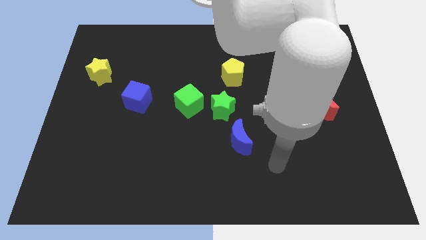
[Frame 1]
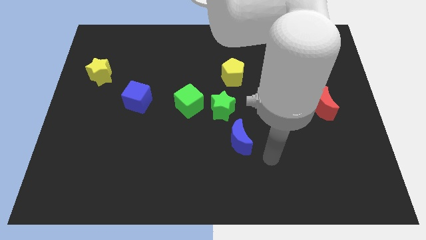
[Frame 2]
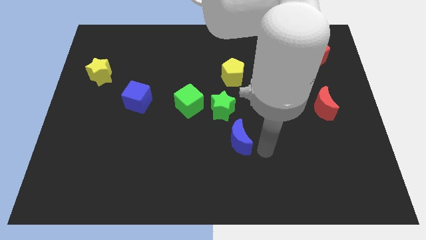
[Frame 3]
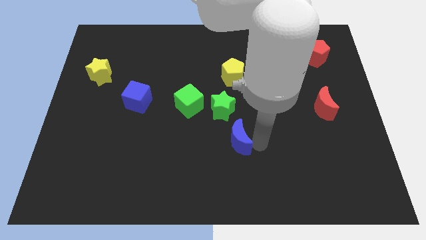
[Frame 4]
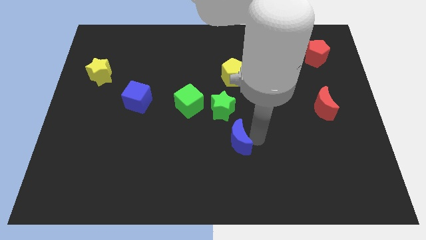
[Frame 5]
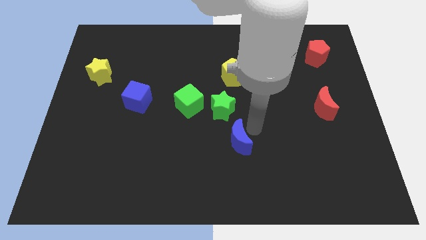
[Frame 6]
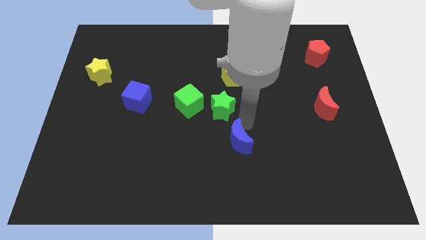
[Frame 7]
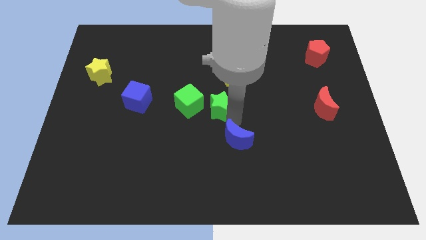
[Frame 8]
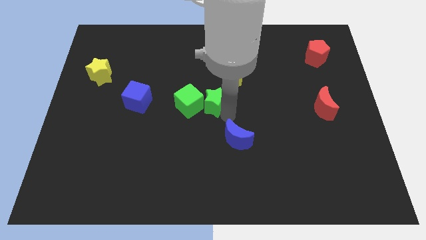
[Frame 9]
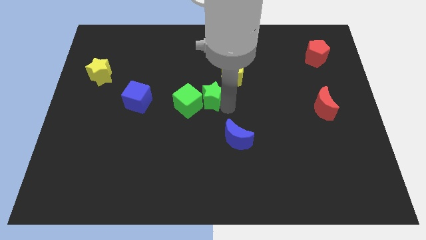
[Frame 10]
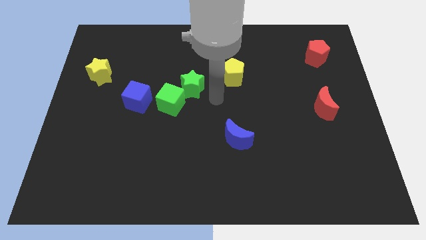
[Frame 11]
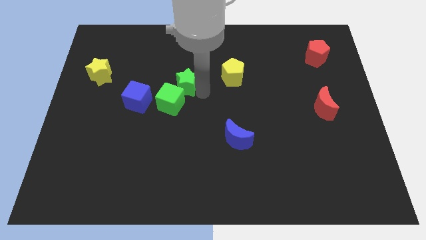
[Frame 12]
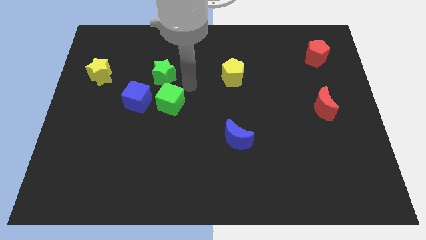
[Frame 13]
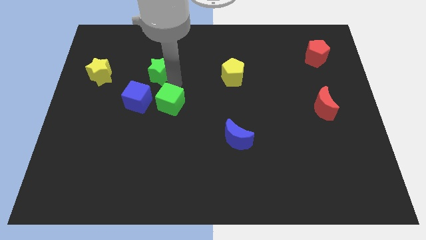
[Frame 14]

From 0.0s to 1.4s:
separate the green cube from the green star

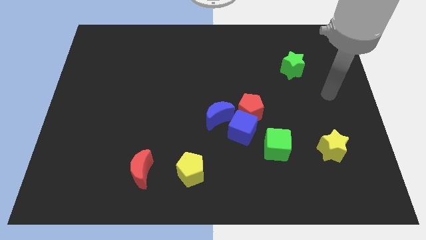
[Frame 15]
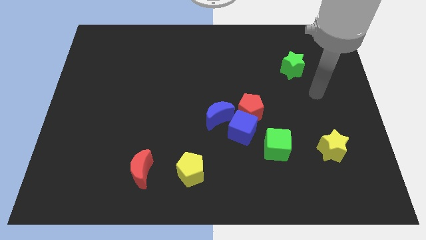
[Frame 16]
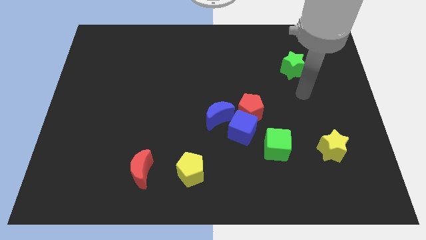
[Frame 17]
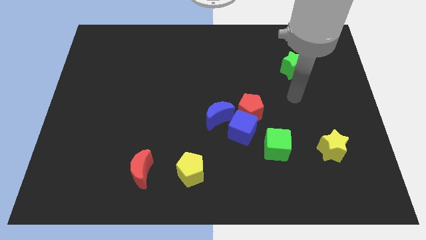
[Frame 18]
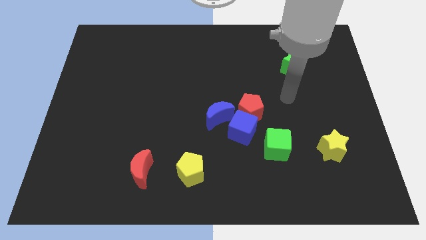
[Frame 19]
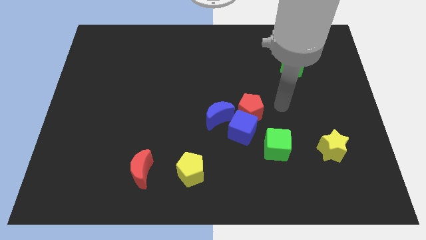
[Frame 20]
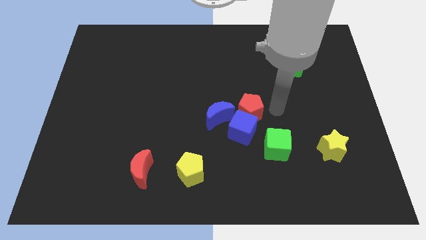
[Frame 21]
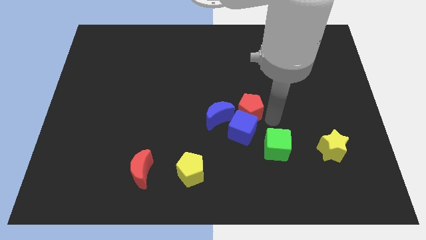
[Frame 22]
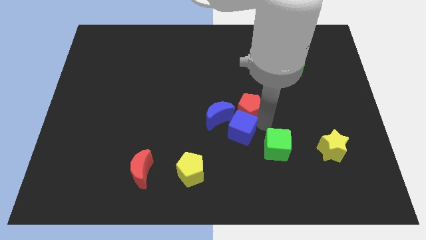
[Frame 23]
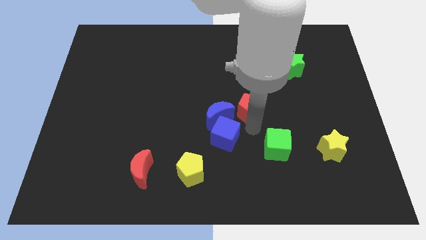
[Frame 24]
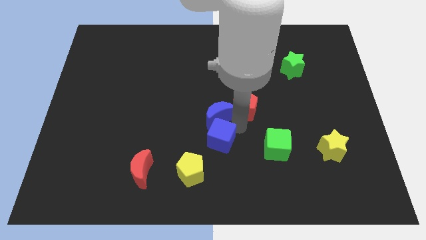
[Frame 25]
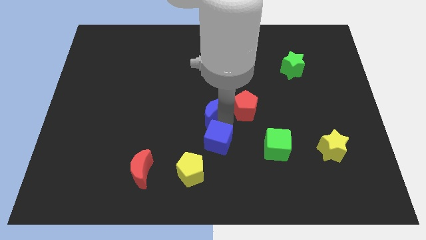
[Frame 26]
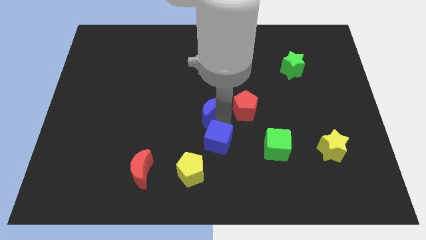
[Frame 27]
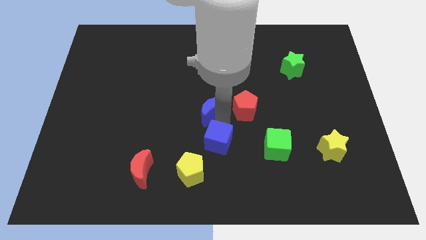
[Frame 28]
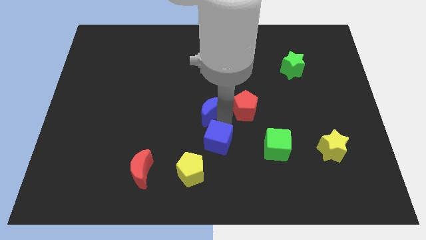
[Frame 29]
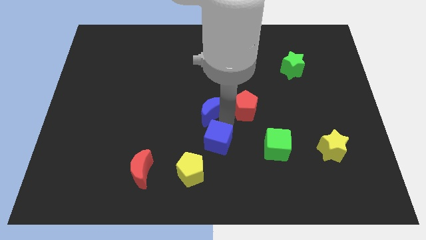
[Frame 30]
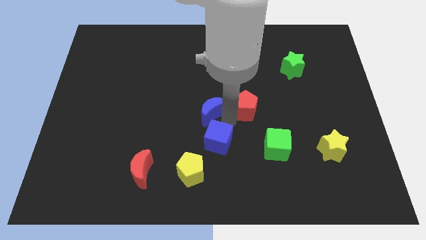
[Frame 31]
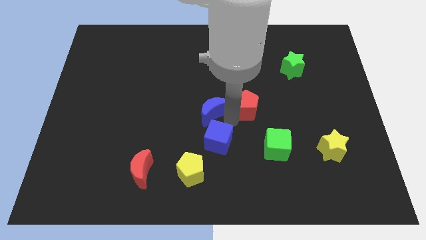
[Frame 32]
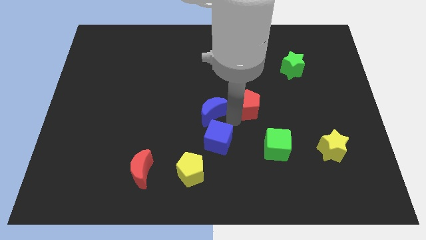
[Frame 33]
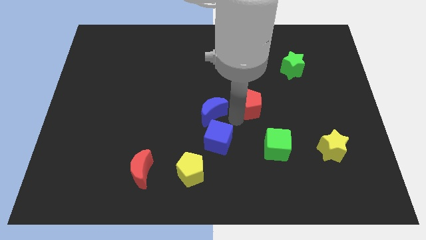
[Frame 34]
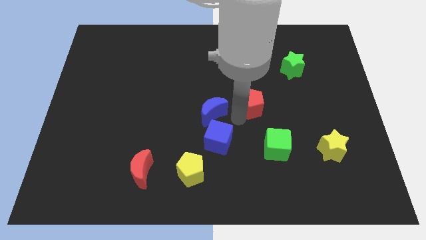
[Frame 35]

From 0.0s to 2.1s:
pull the red pentagon apart from the blue cube and blue moon

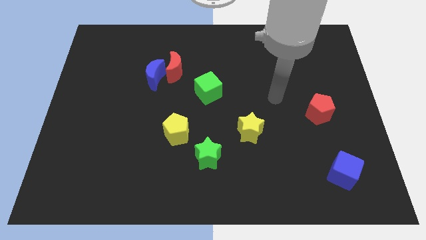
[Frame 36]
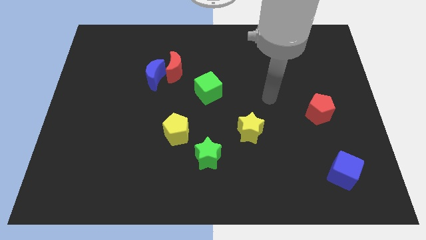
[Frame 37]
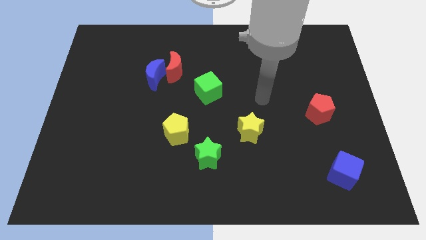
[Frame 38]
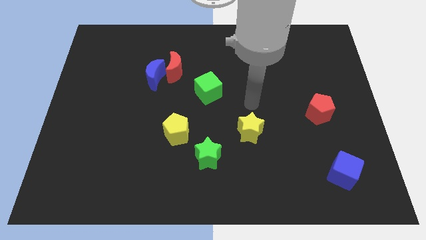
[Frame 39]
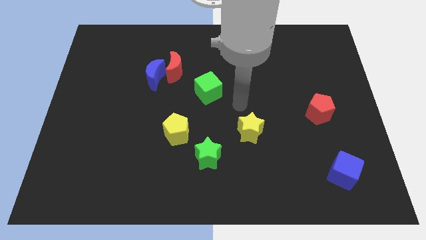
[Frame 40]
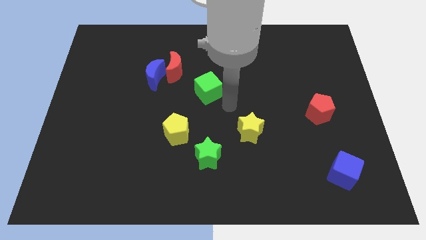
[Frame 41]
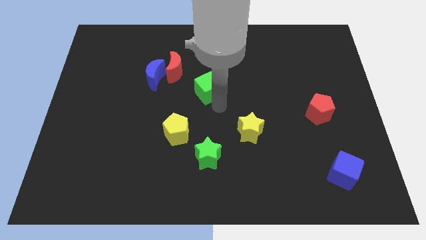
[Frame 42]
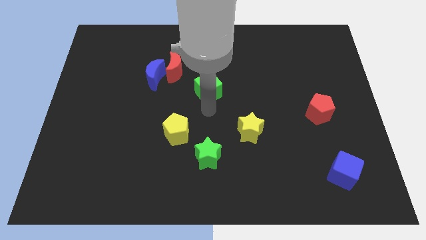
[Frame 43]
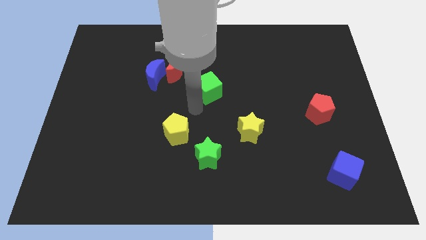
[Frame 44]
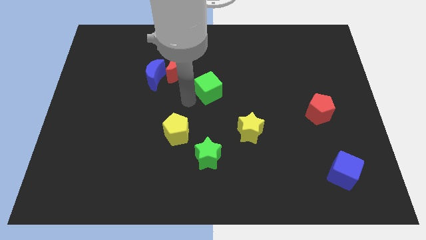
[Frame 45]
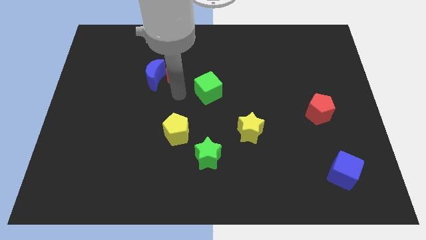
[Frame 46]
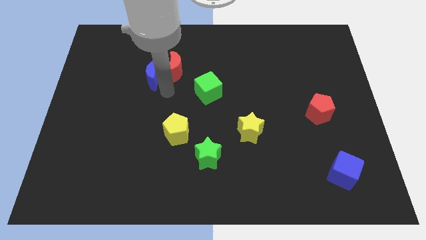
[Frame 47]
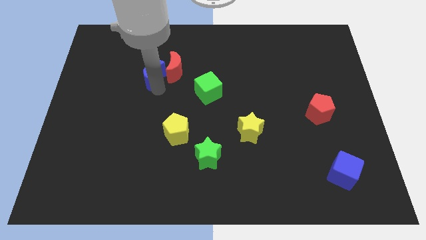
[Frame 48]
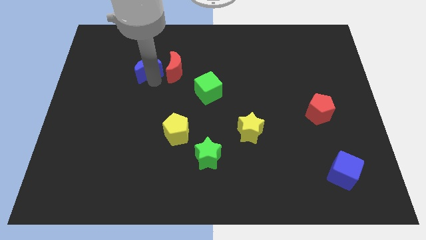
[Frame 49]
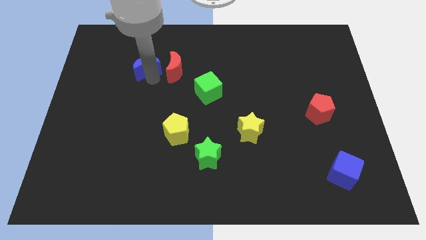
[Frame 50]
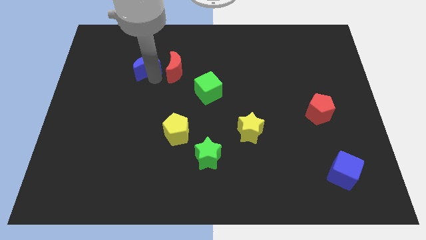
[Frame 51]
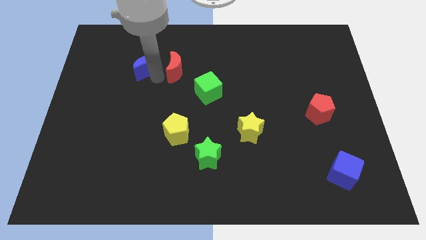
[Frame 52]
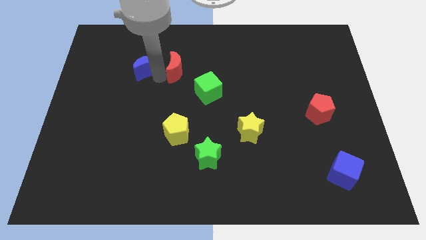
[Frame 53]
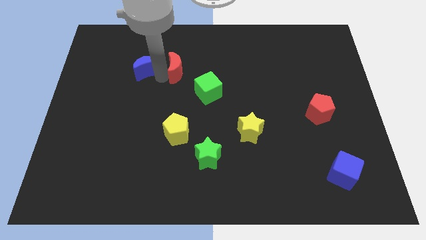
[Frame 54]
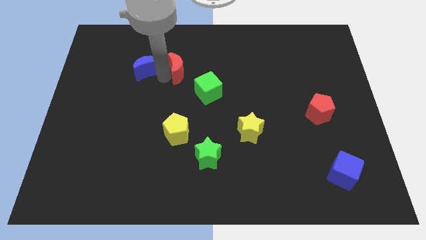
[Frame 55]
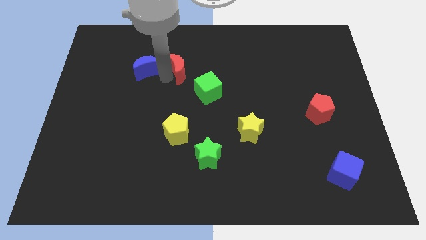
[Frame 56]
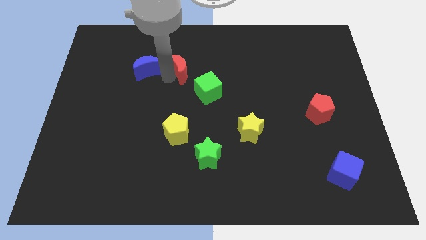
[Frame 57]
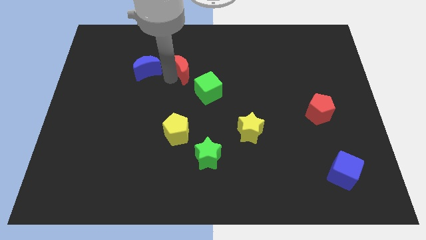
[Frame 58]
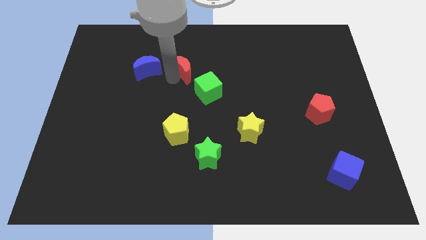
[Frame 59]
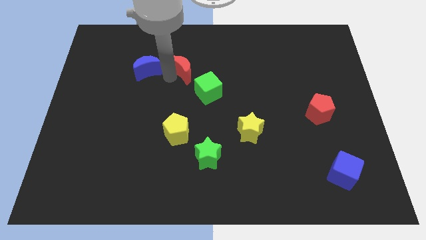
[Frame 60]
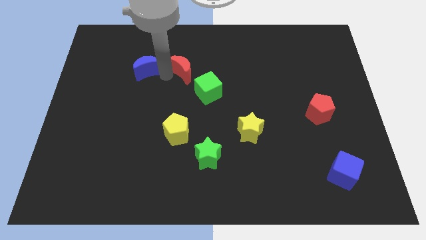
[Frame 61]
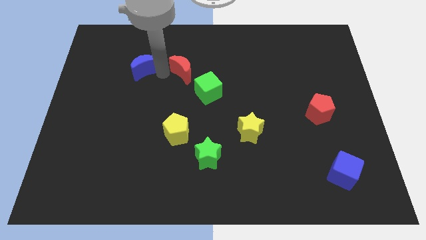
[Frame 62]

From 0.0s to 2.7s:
pull the red moon apart from the blue moon

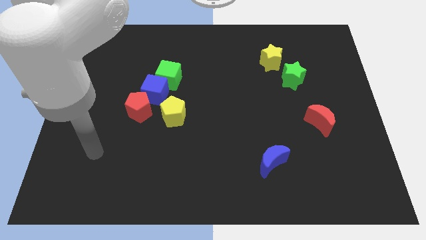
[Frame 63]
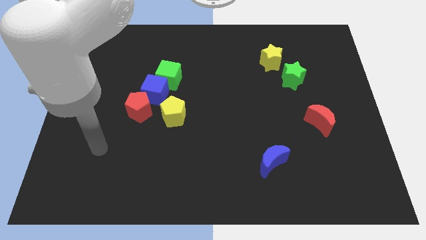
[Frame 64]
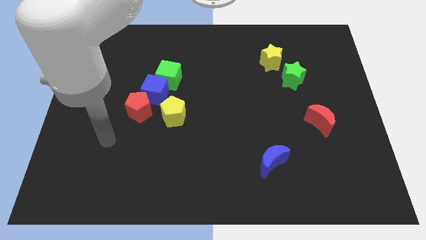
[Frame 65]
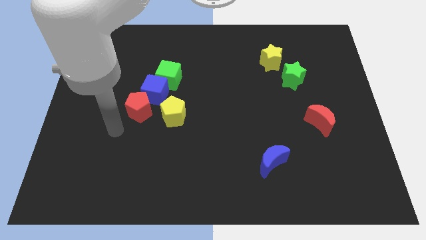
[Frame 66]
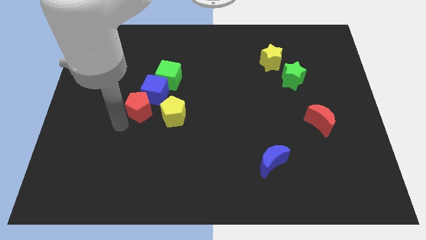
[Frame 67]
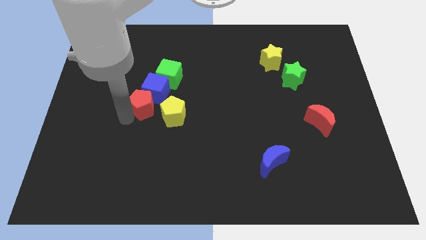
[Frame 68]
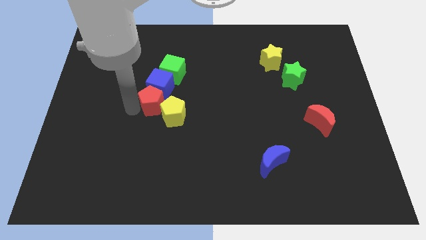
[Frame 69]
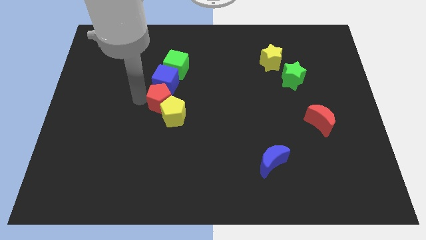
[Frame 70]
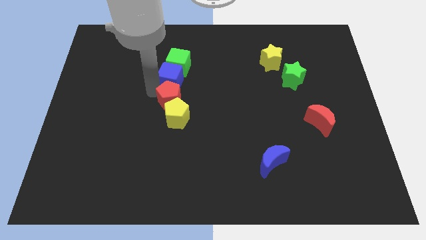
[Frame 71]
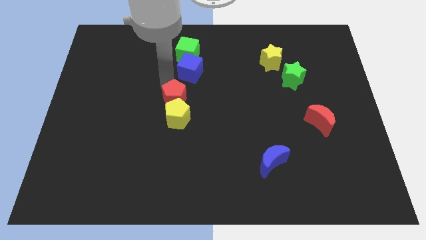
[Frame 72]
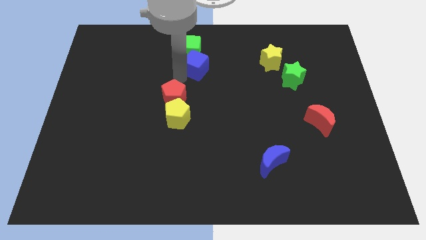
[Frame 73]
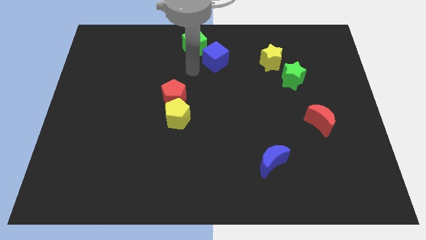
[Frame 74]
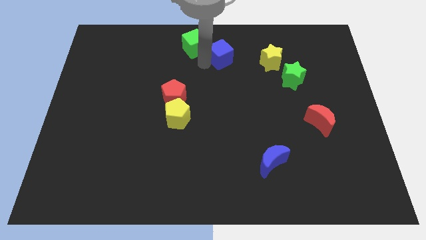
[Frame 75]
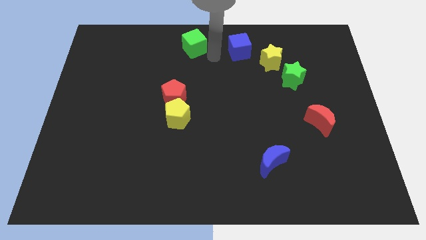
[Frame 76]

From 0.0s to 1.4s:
move the green cube away from the blue cube

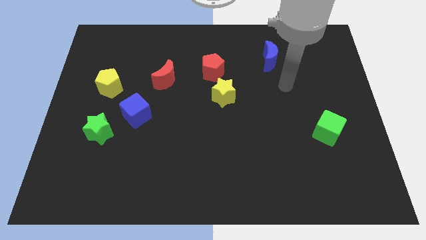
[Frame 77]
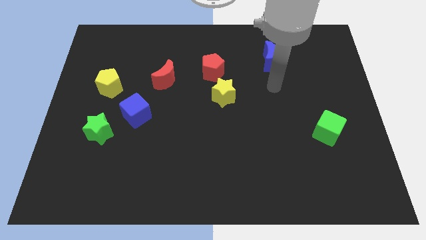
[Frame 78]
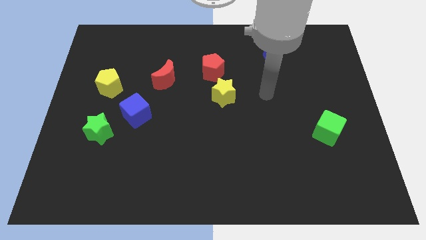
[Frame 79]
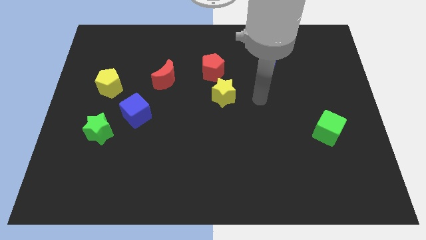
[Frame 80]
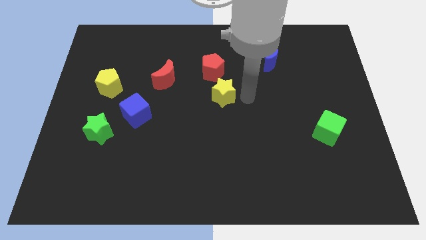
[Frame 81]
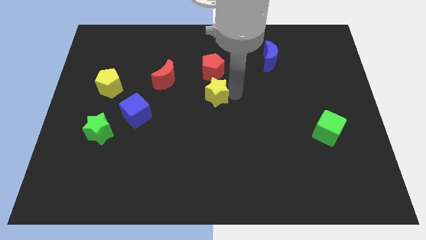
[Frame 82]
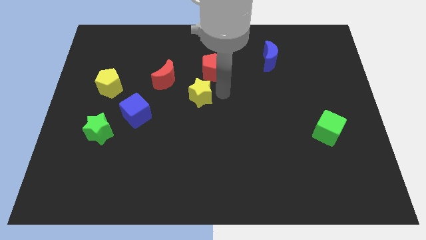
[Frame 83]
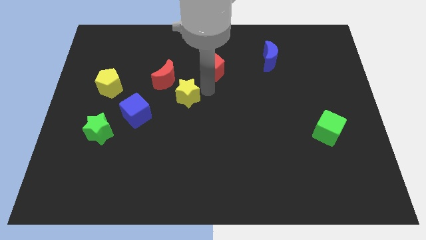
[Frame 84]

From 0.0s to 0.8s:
move the red pentagon away from the yellow star

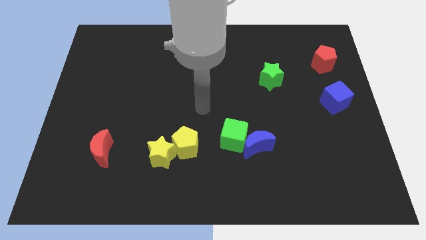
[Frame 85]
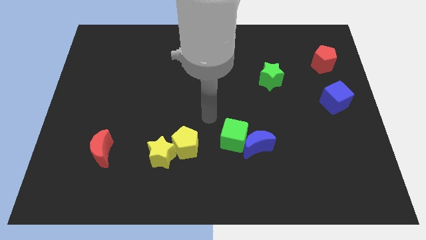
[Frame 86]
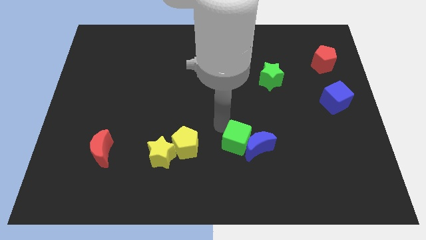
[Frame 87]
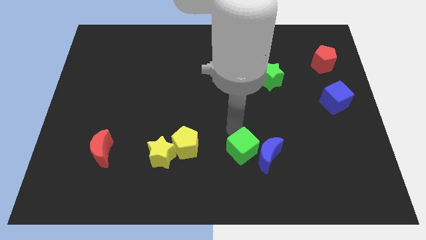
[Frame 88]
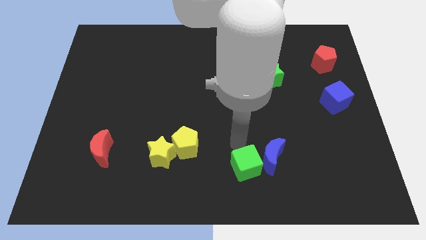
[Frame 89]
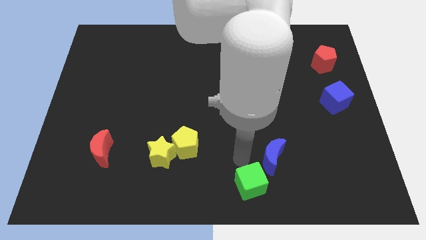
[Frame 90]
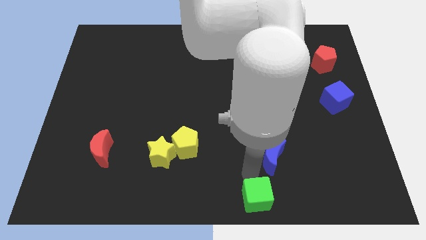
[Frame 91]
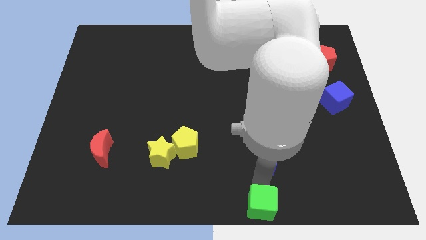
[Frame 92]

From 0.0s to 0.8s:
separate the blue moon from the green cube
